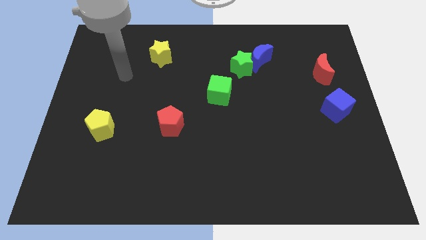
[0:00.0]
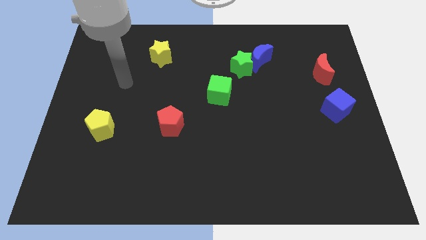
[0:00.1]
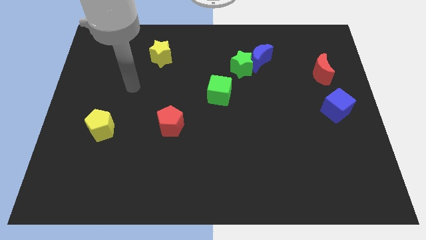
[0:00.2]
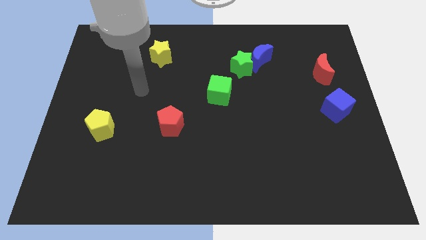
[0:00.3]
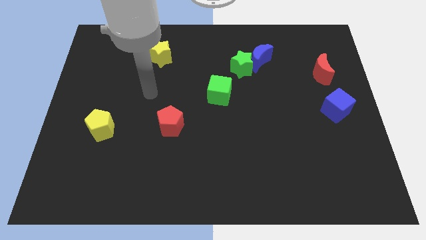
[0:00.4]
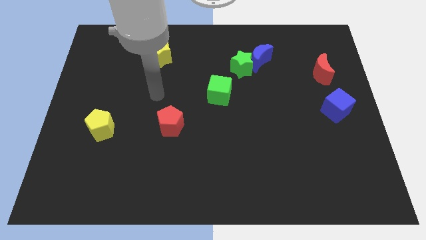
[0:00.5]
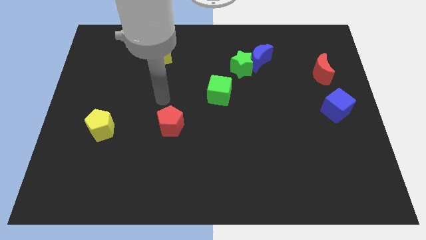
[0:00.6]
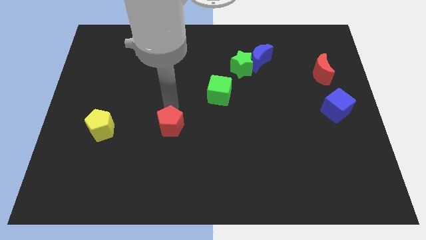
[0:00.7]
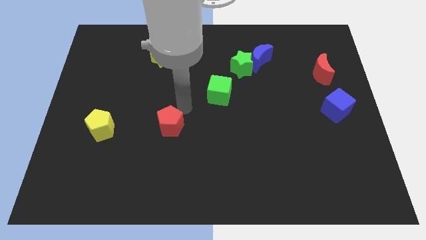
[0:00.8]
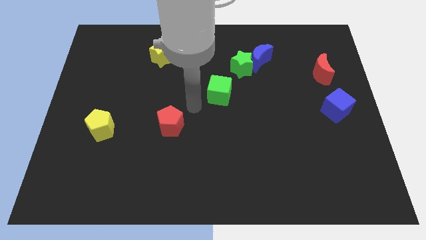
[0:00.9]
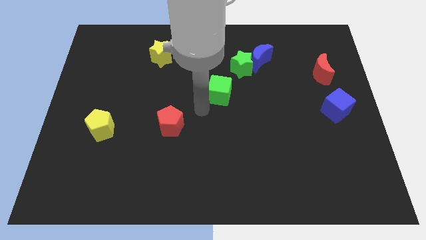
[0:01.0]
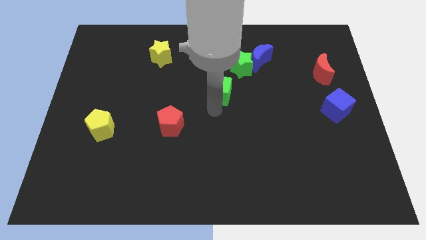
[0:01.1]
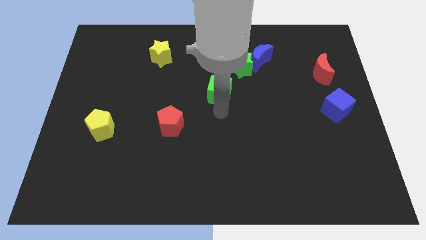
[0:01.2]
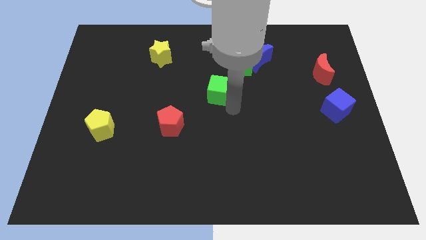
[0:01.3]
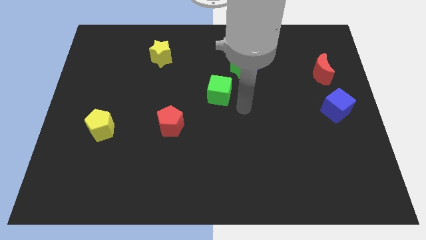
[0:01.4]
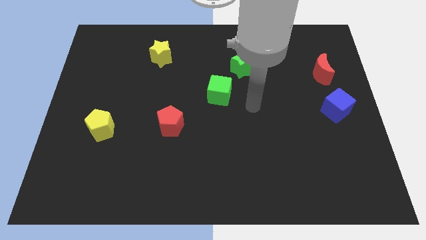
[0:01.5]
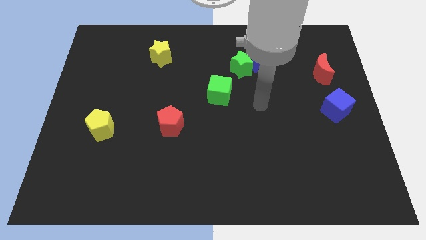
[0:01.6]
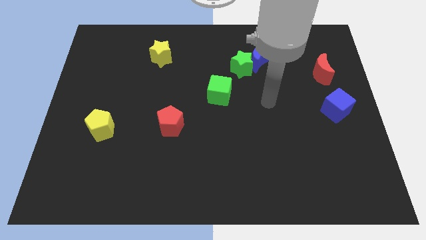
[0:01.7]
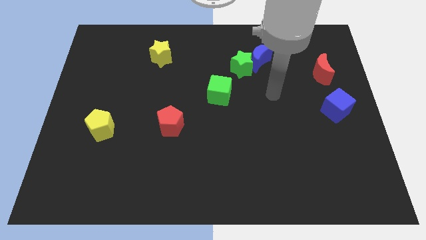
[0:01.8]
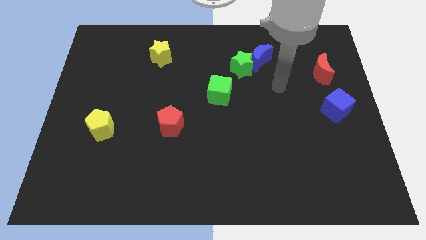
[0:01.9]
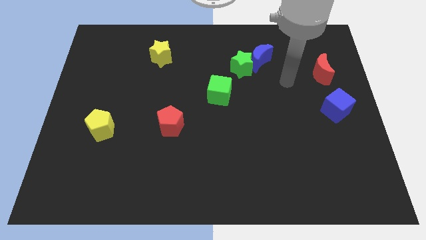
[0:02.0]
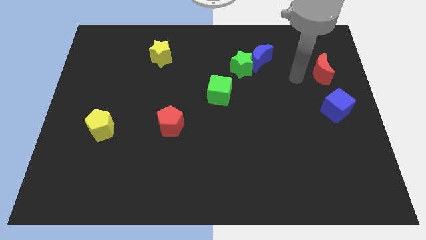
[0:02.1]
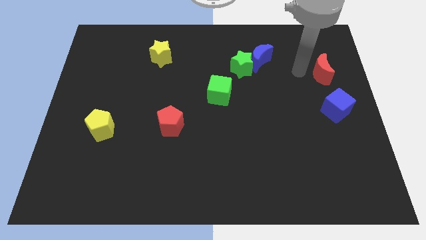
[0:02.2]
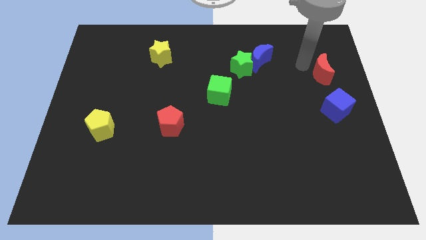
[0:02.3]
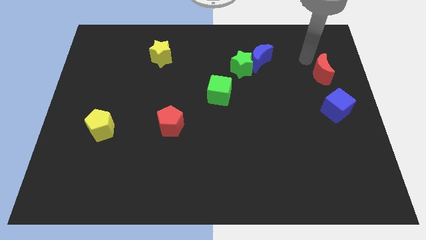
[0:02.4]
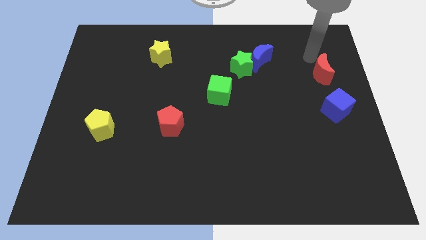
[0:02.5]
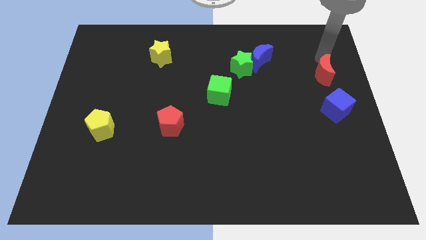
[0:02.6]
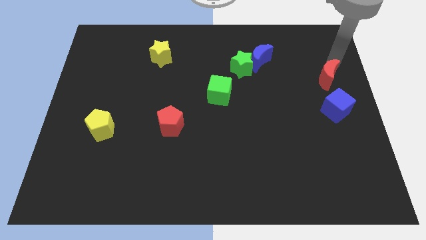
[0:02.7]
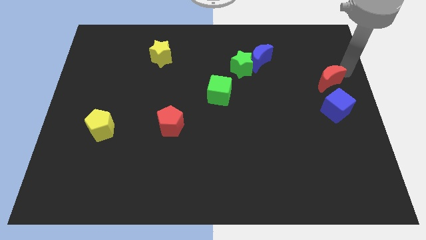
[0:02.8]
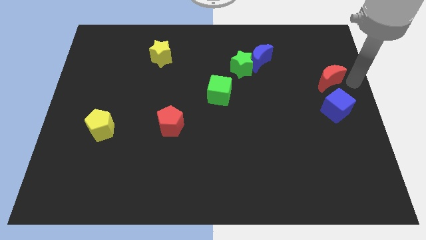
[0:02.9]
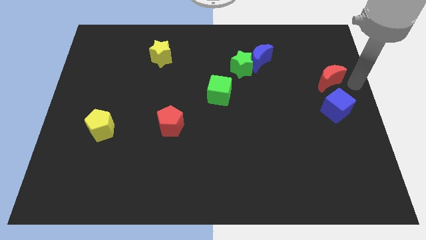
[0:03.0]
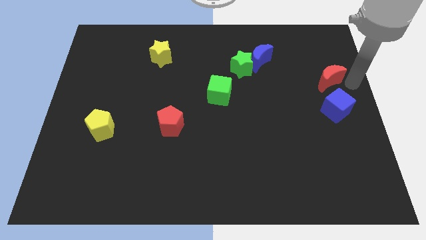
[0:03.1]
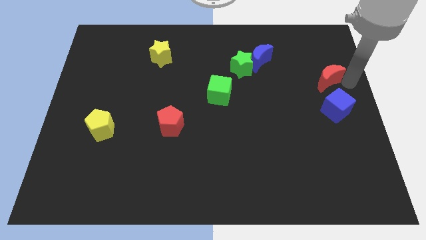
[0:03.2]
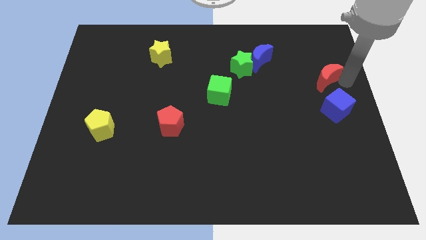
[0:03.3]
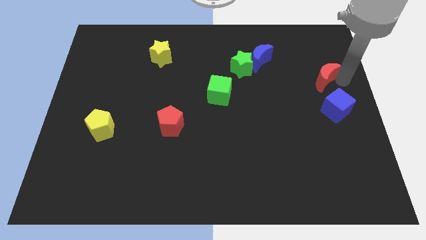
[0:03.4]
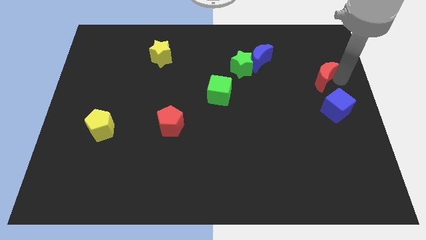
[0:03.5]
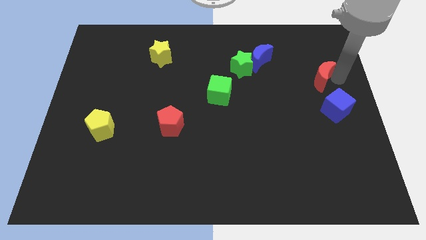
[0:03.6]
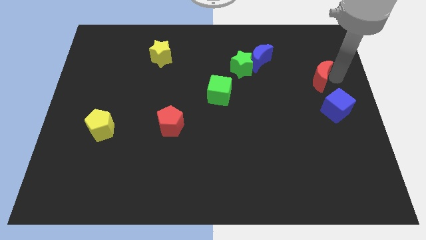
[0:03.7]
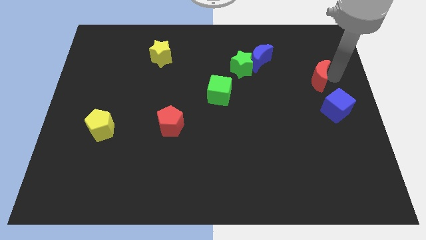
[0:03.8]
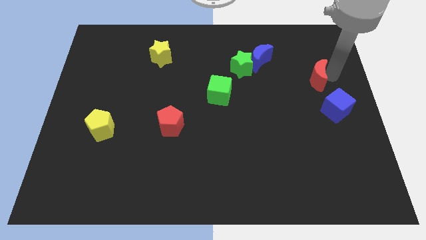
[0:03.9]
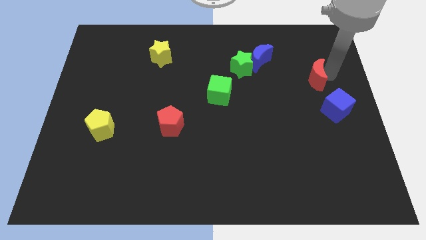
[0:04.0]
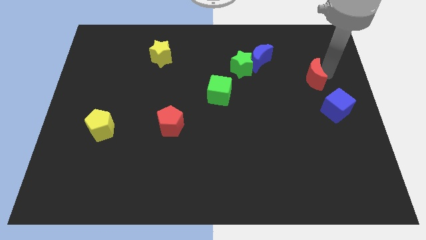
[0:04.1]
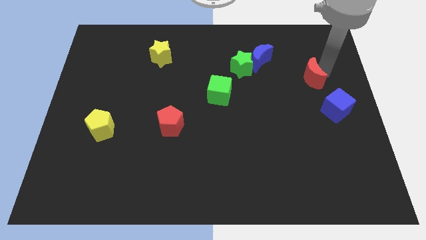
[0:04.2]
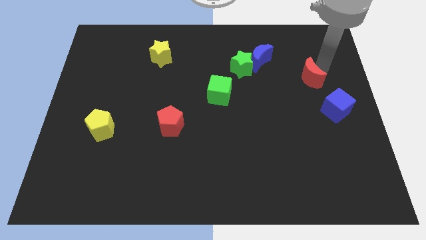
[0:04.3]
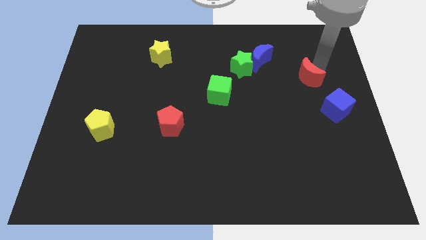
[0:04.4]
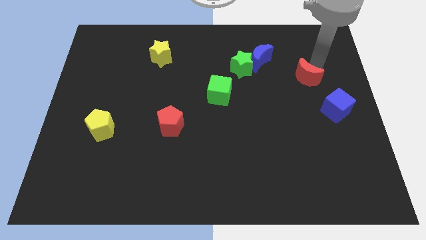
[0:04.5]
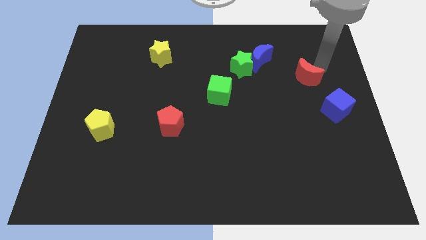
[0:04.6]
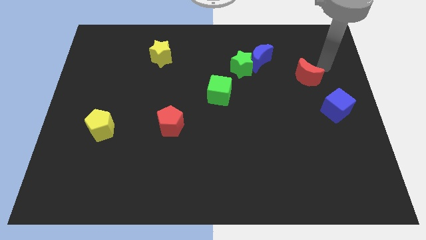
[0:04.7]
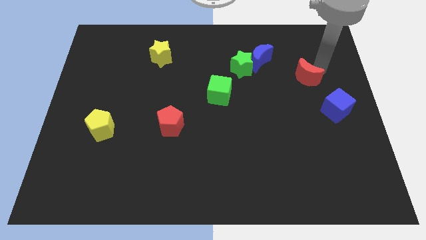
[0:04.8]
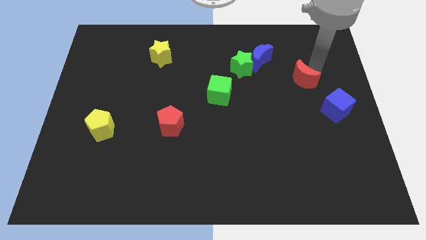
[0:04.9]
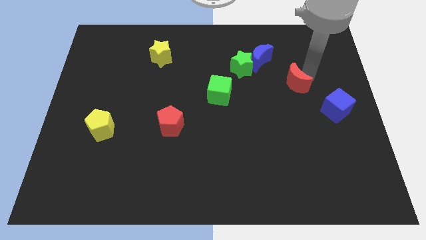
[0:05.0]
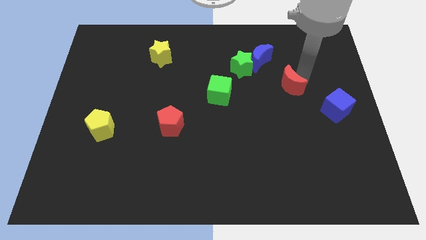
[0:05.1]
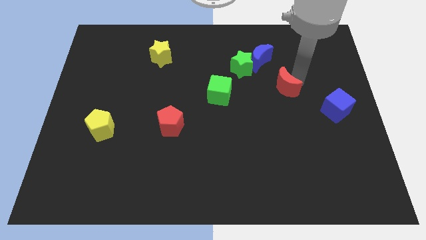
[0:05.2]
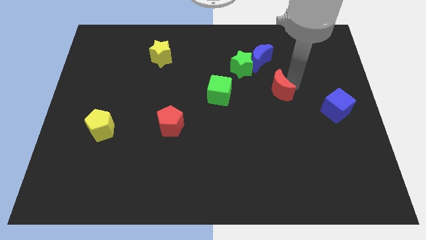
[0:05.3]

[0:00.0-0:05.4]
put the red moon to the bottom side of the blue moon
